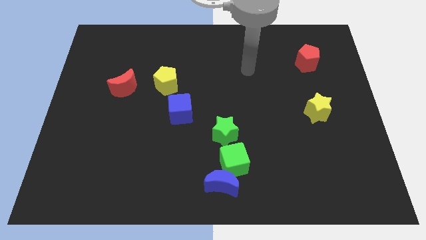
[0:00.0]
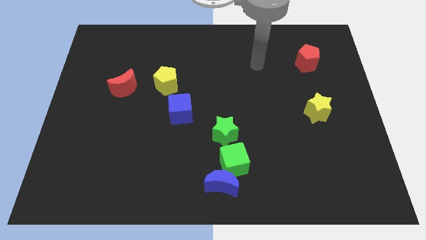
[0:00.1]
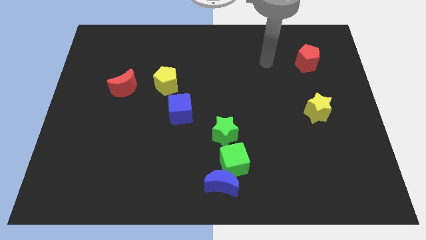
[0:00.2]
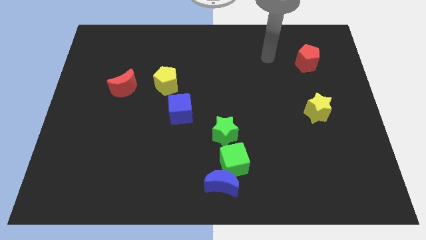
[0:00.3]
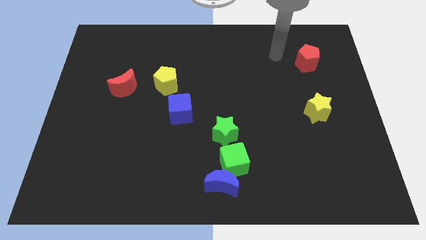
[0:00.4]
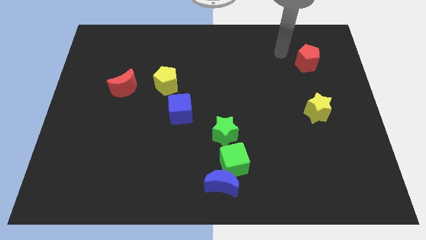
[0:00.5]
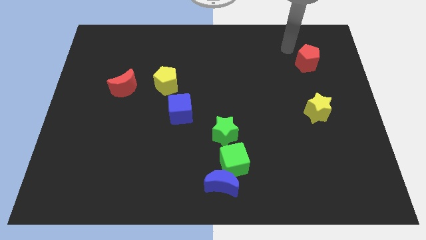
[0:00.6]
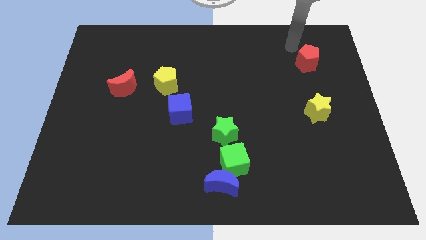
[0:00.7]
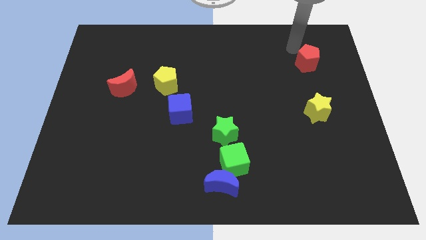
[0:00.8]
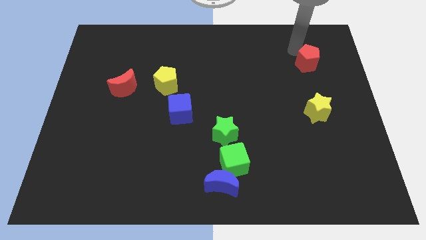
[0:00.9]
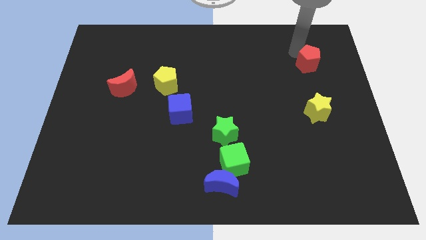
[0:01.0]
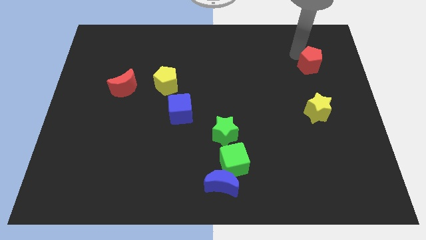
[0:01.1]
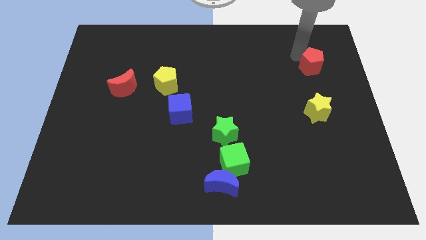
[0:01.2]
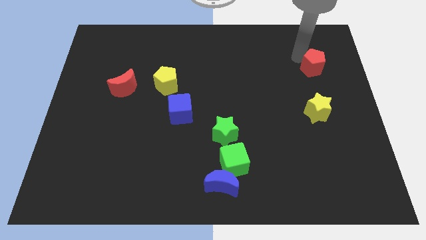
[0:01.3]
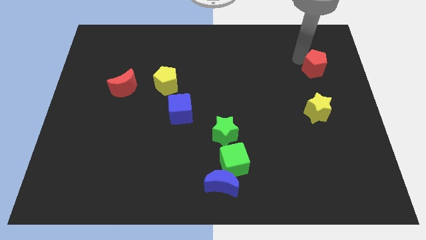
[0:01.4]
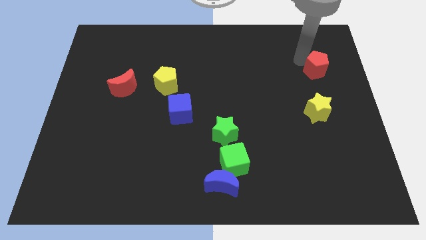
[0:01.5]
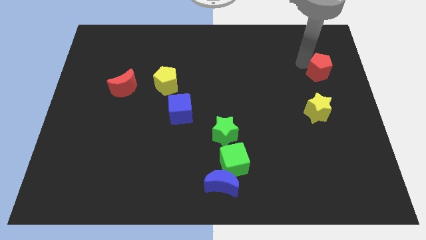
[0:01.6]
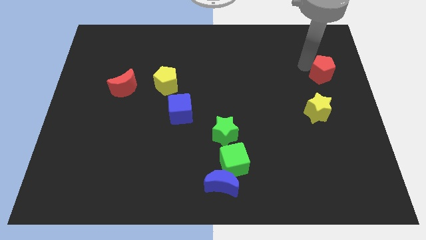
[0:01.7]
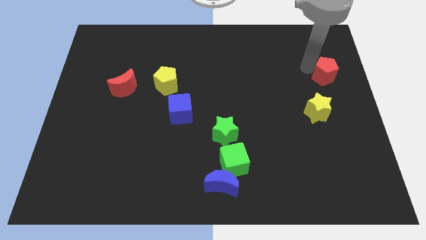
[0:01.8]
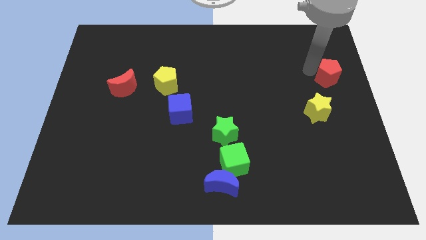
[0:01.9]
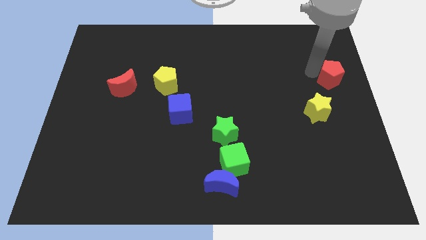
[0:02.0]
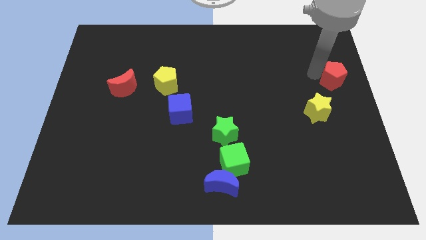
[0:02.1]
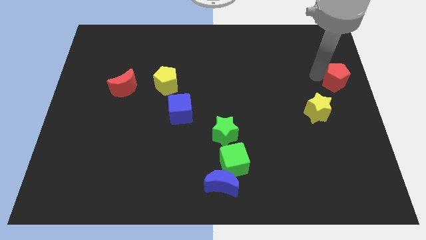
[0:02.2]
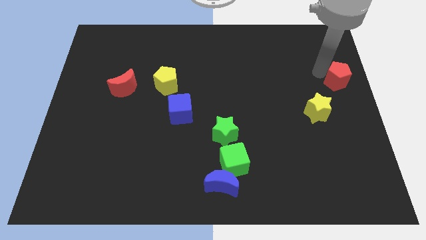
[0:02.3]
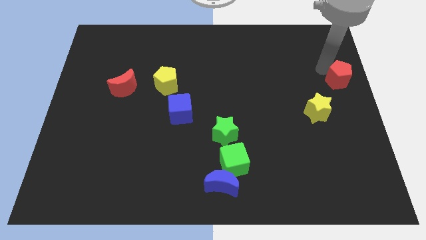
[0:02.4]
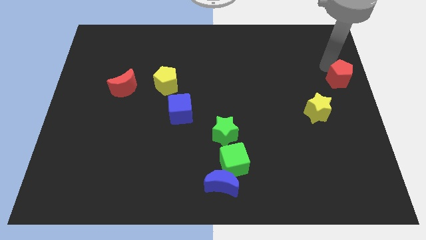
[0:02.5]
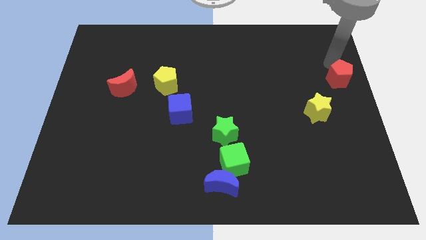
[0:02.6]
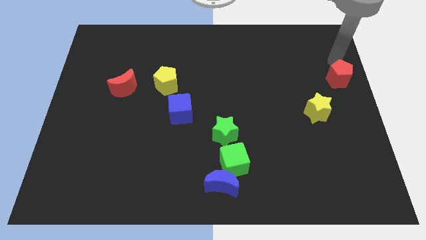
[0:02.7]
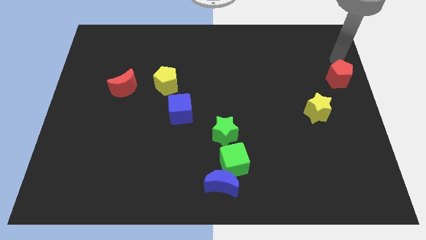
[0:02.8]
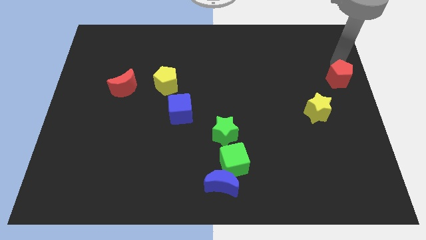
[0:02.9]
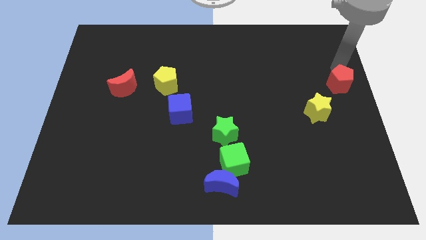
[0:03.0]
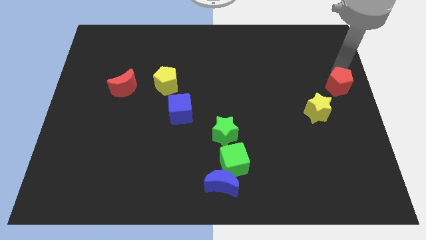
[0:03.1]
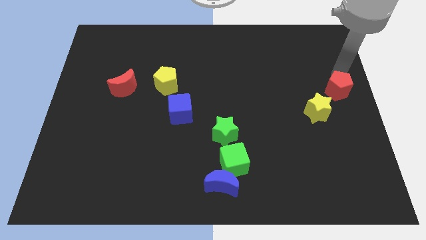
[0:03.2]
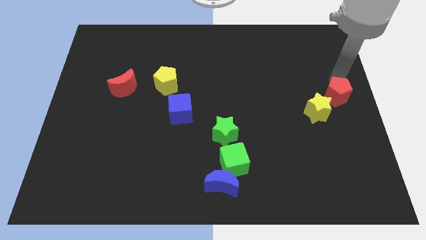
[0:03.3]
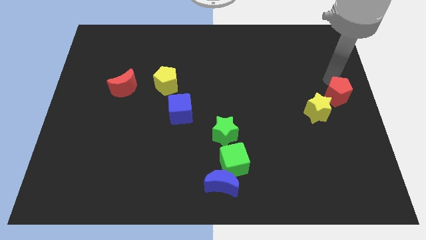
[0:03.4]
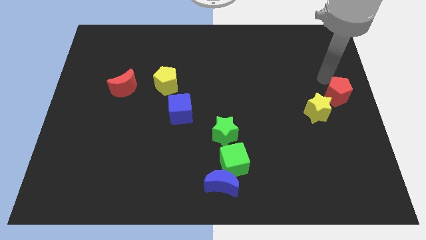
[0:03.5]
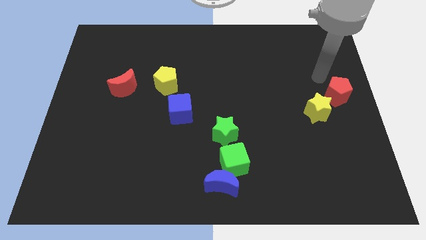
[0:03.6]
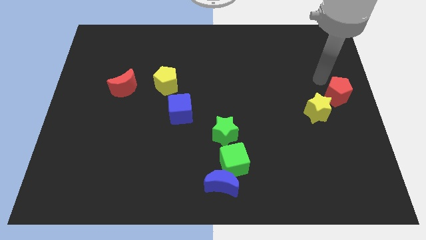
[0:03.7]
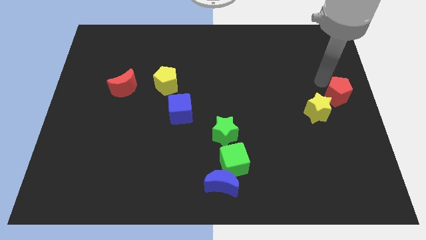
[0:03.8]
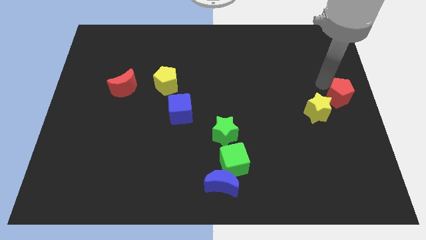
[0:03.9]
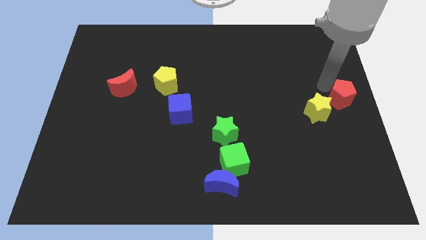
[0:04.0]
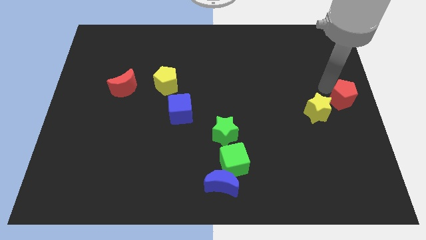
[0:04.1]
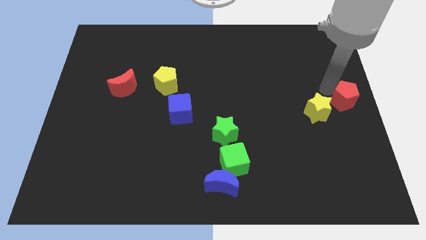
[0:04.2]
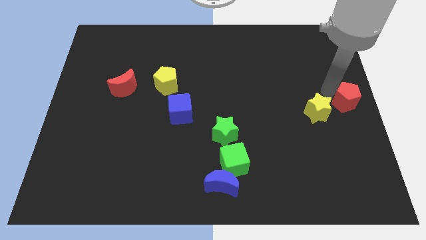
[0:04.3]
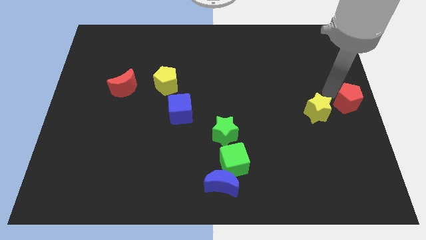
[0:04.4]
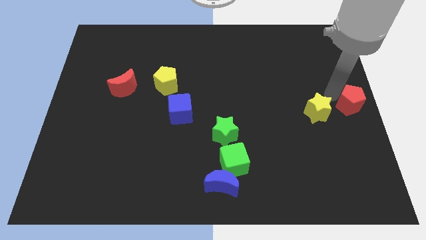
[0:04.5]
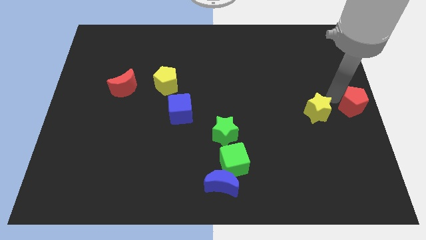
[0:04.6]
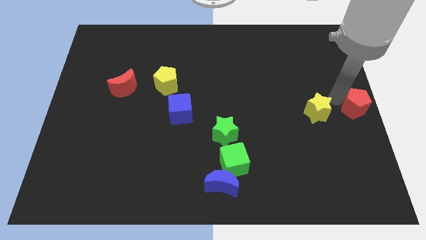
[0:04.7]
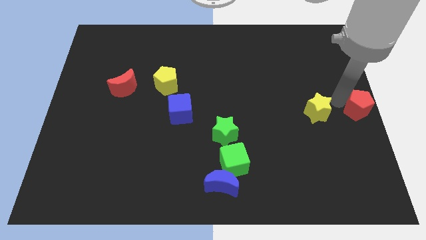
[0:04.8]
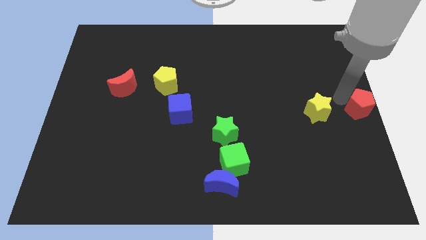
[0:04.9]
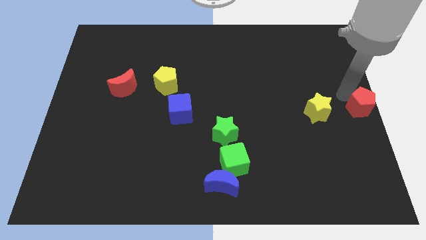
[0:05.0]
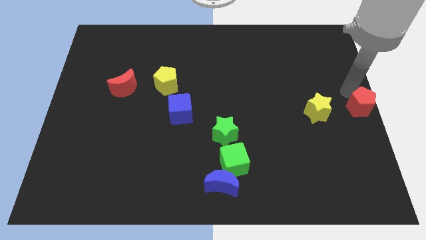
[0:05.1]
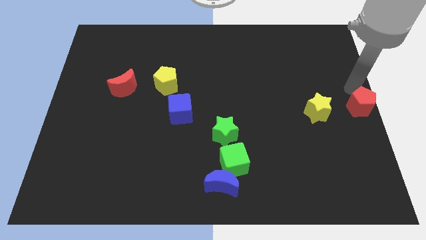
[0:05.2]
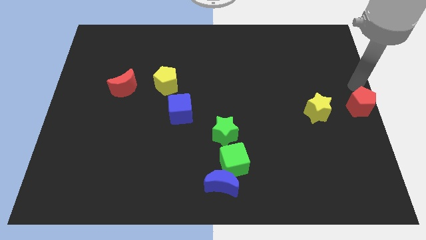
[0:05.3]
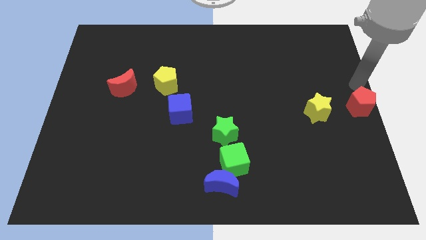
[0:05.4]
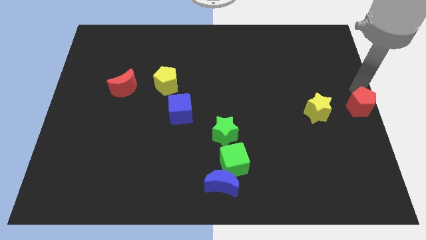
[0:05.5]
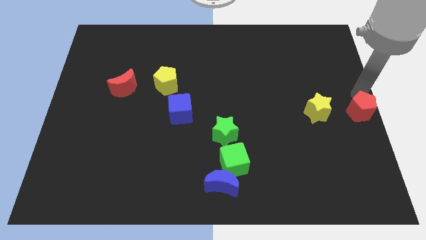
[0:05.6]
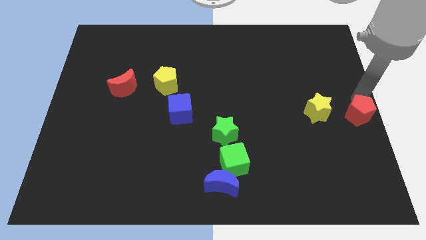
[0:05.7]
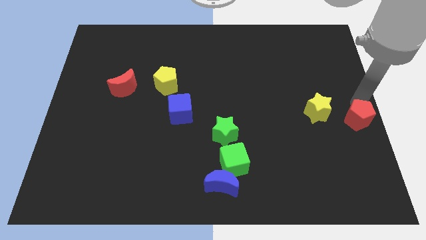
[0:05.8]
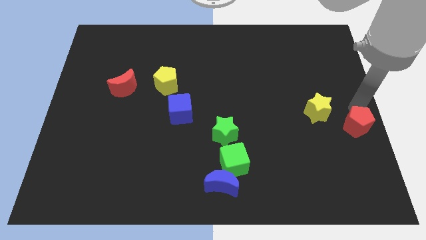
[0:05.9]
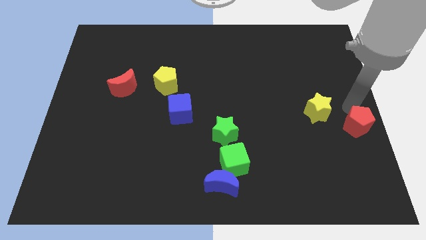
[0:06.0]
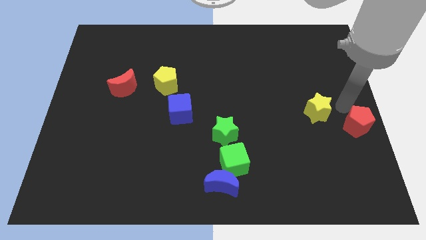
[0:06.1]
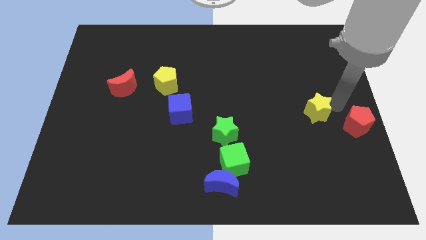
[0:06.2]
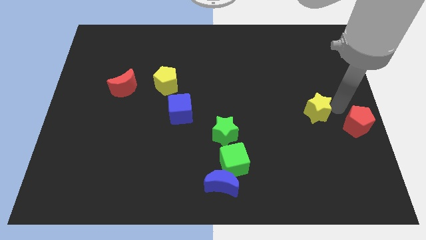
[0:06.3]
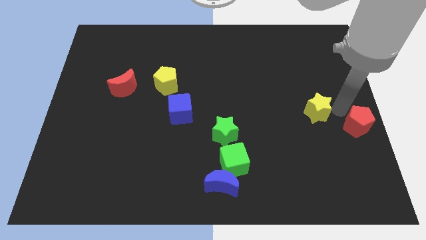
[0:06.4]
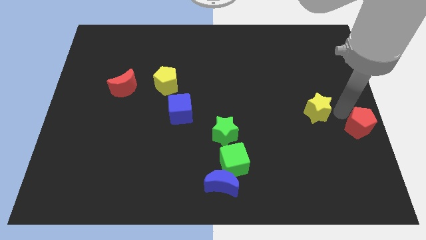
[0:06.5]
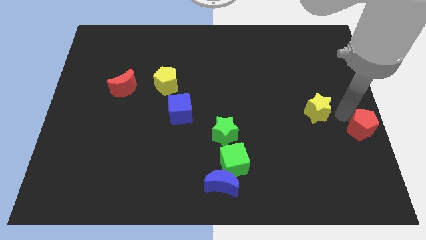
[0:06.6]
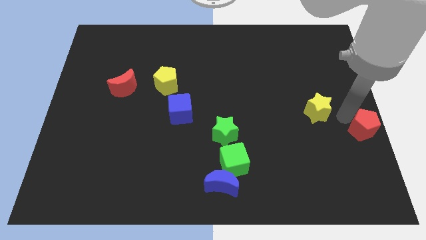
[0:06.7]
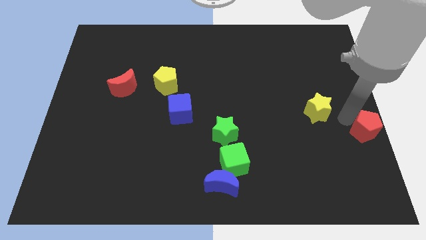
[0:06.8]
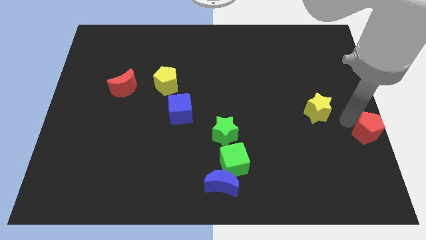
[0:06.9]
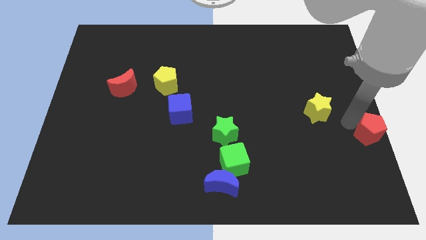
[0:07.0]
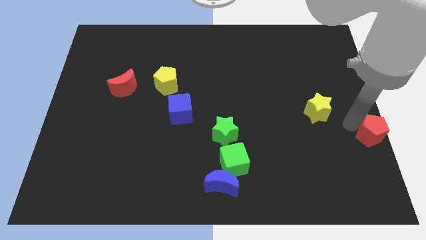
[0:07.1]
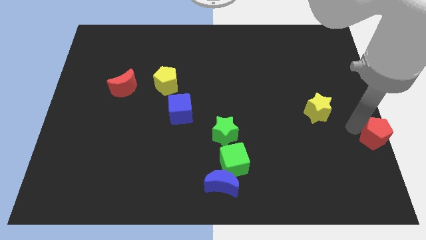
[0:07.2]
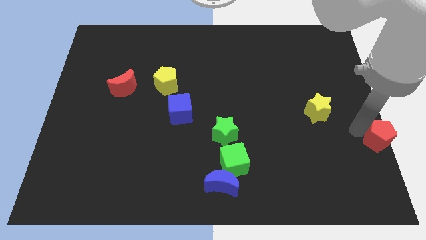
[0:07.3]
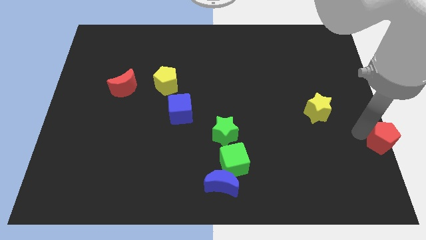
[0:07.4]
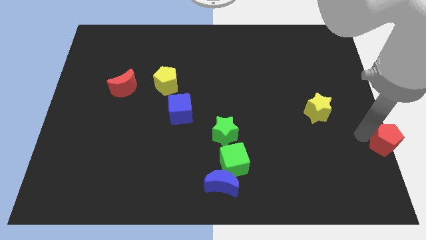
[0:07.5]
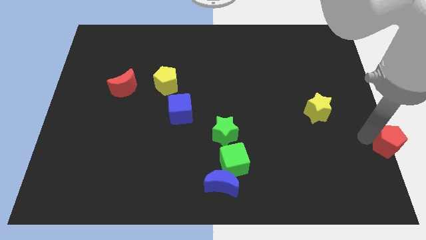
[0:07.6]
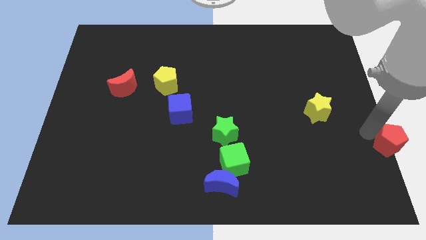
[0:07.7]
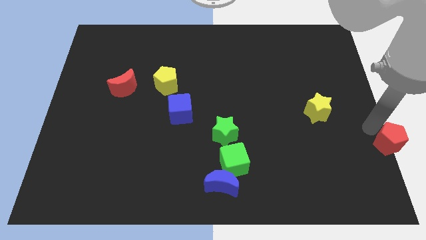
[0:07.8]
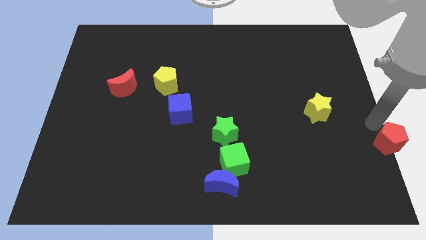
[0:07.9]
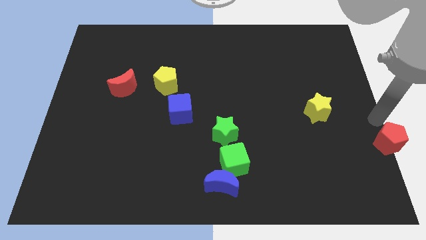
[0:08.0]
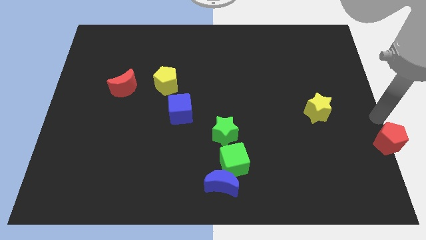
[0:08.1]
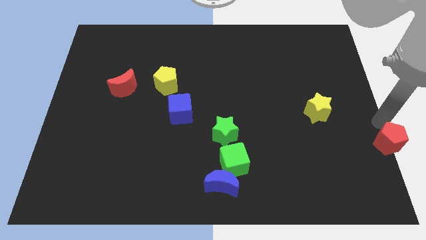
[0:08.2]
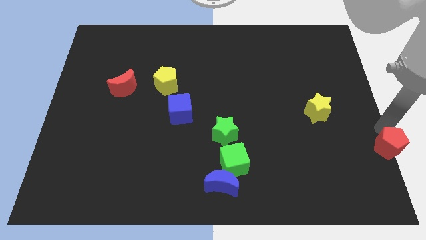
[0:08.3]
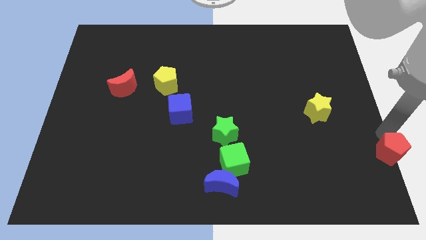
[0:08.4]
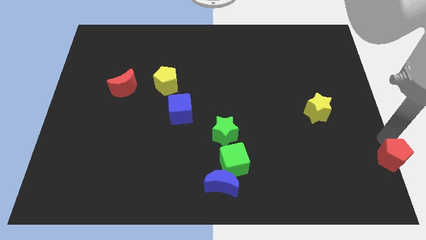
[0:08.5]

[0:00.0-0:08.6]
put the red pentagon to the bottom right
